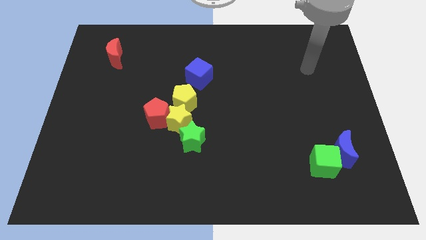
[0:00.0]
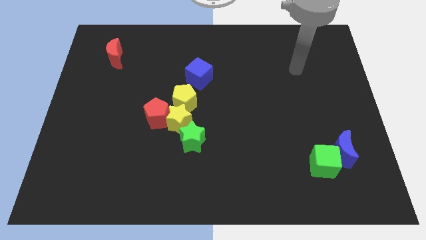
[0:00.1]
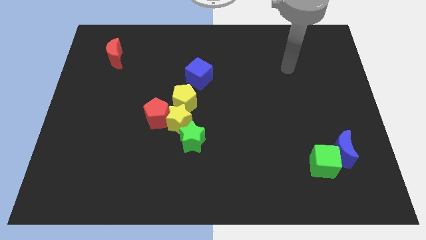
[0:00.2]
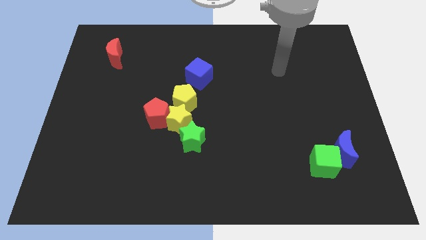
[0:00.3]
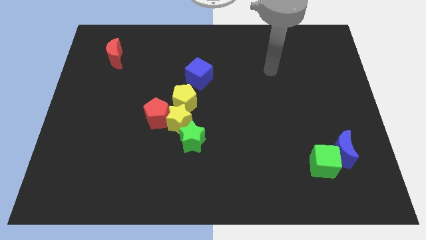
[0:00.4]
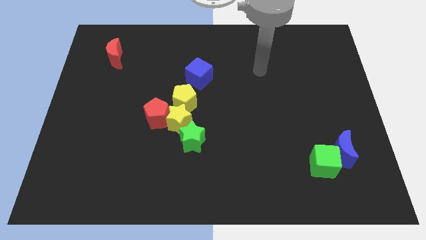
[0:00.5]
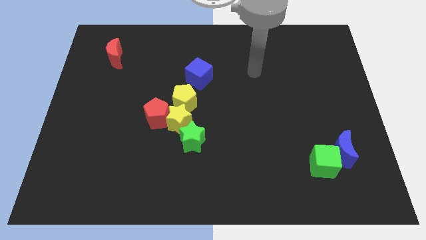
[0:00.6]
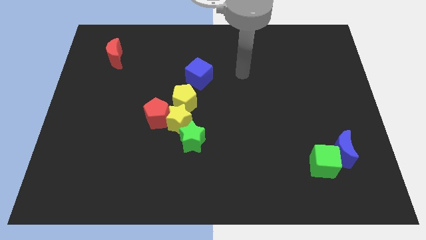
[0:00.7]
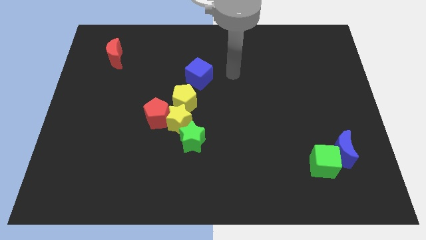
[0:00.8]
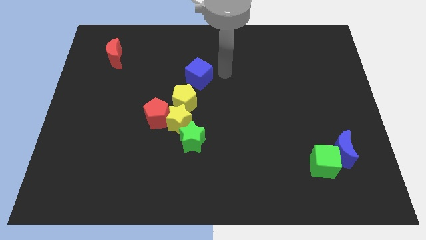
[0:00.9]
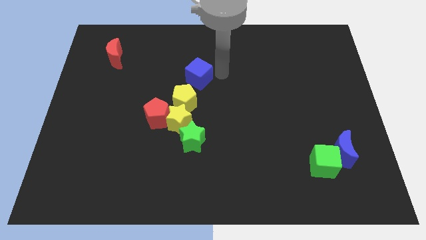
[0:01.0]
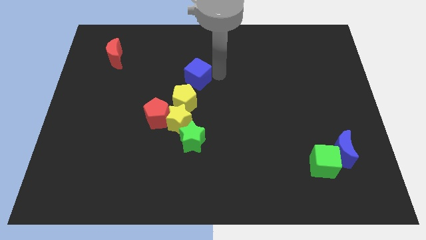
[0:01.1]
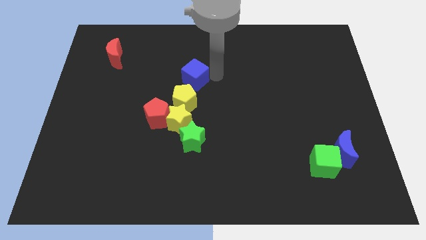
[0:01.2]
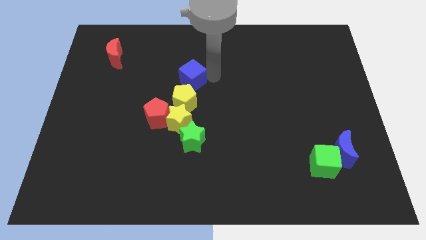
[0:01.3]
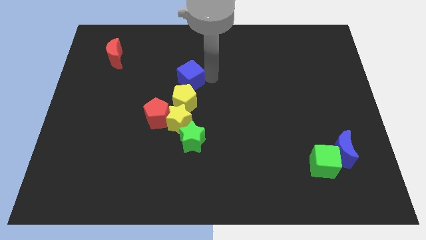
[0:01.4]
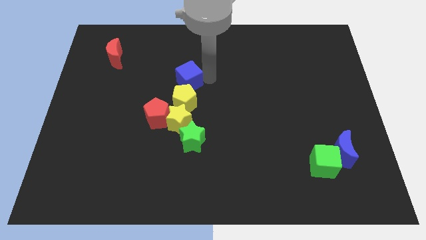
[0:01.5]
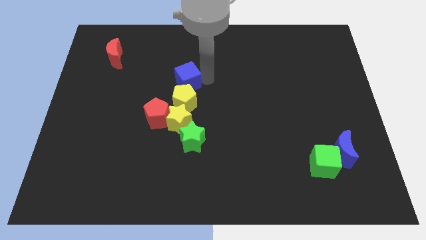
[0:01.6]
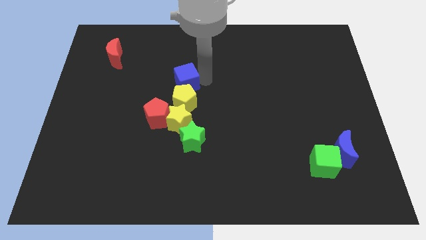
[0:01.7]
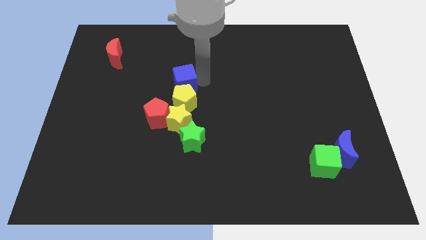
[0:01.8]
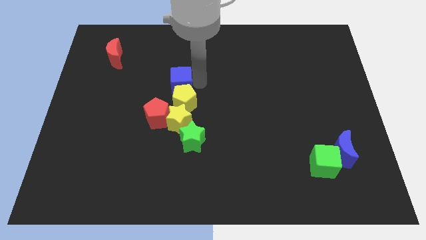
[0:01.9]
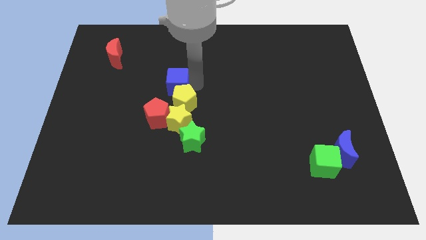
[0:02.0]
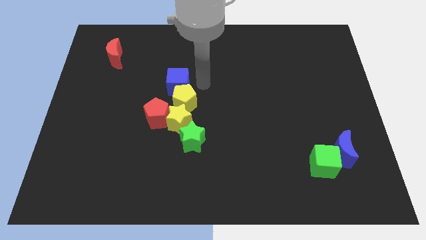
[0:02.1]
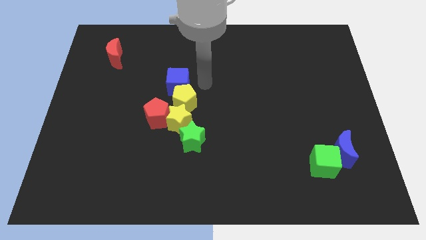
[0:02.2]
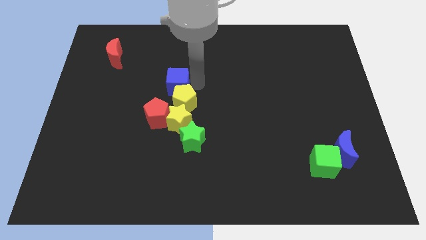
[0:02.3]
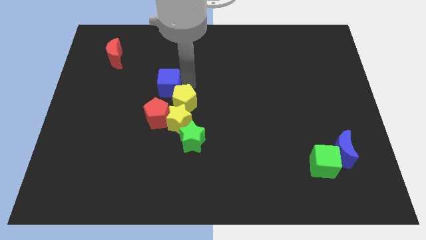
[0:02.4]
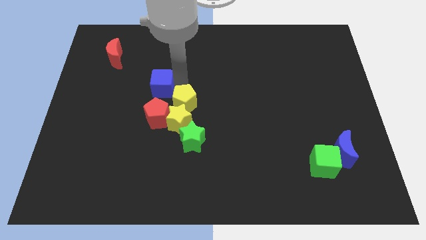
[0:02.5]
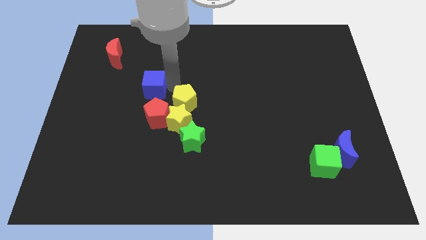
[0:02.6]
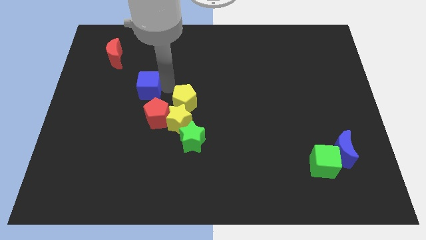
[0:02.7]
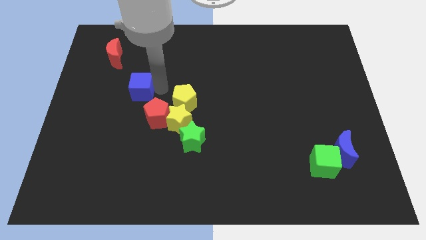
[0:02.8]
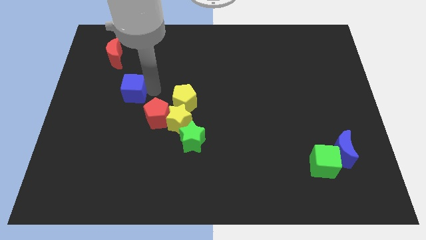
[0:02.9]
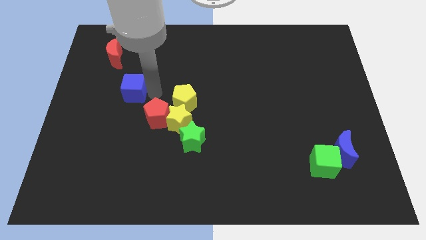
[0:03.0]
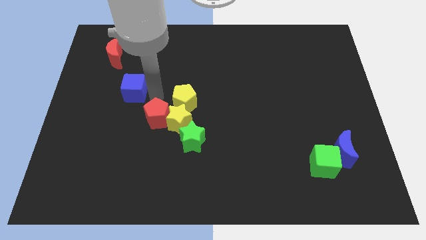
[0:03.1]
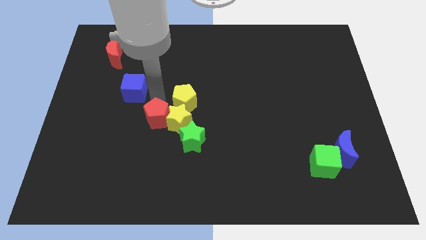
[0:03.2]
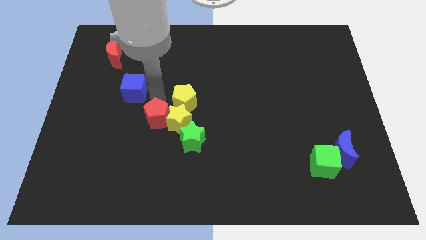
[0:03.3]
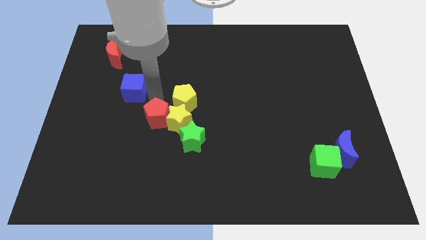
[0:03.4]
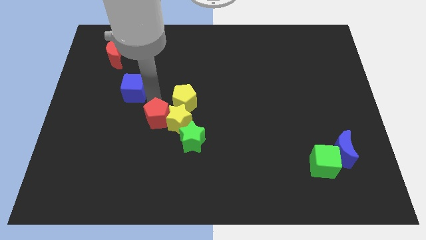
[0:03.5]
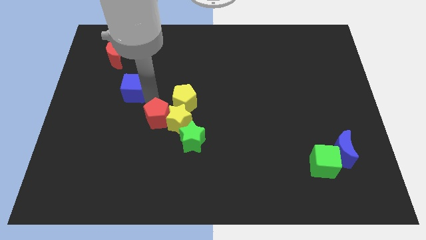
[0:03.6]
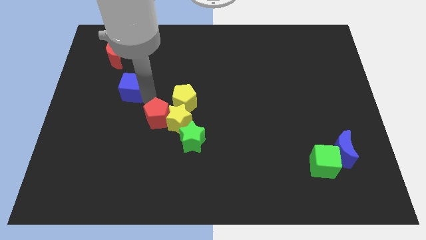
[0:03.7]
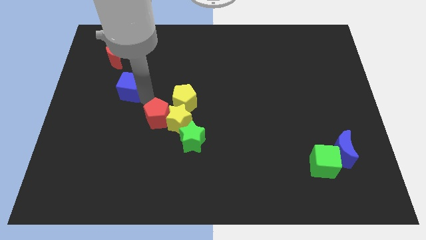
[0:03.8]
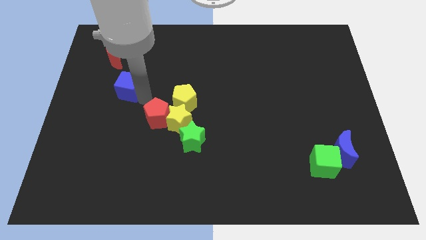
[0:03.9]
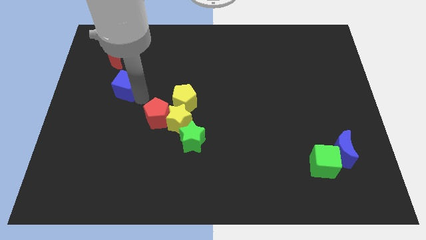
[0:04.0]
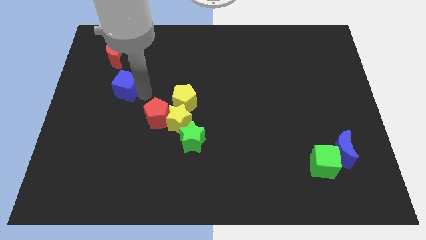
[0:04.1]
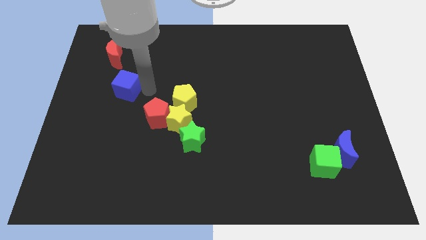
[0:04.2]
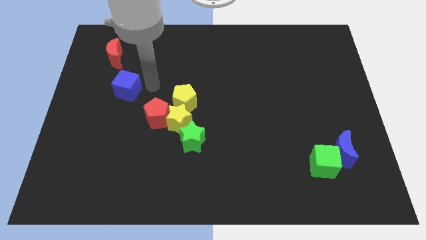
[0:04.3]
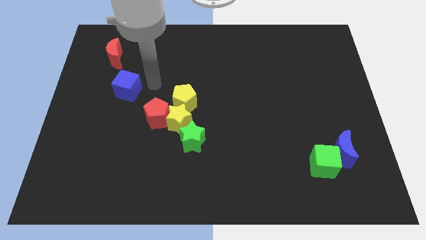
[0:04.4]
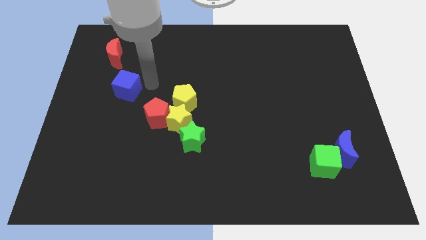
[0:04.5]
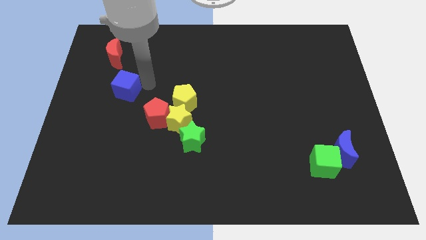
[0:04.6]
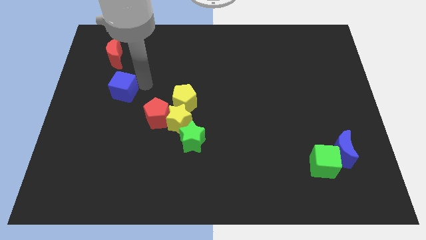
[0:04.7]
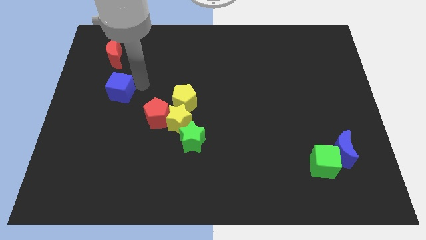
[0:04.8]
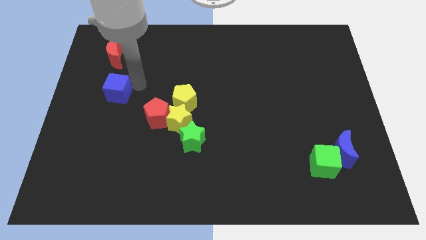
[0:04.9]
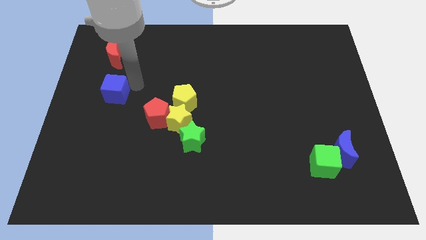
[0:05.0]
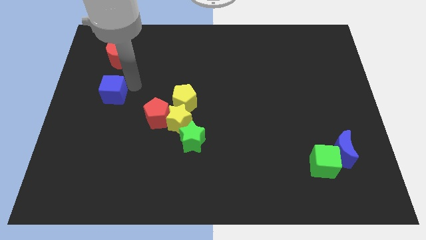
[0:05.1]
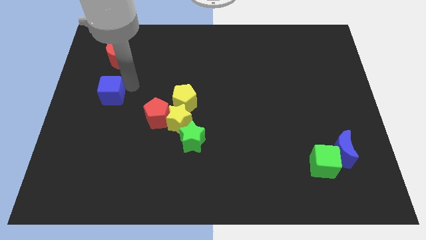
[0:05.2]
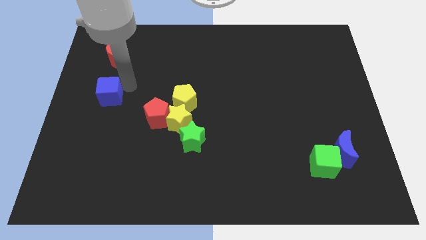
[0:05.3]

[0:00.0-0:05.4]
move the blue cube to the center left

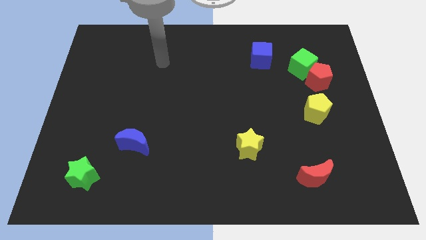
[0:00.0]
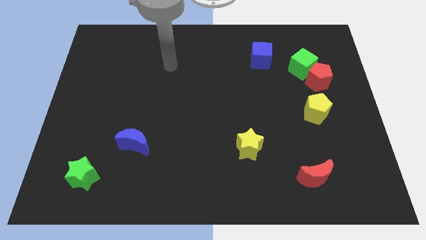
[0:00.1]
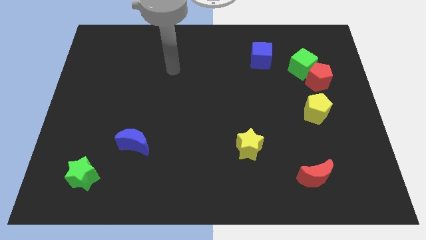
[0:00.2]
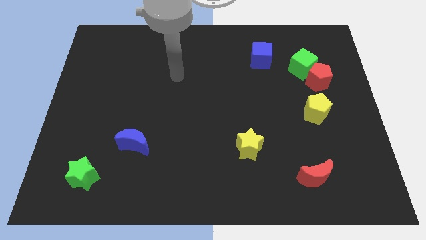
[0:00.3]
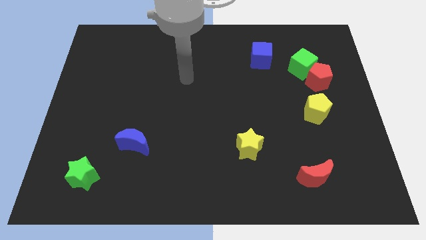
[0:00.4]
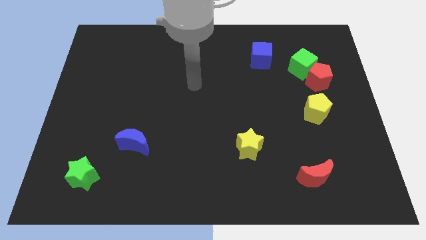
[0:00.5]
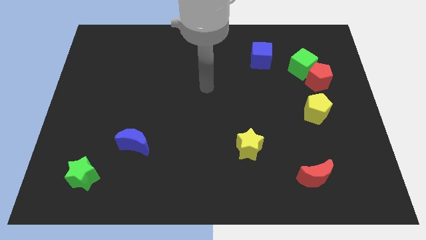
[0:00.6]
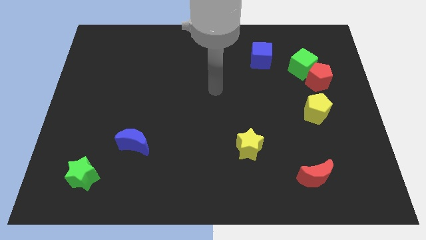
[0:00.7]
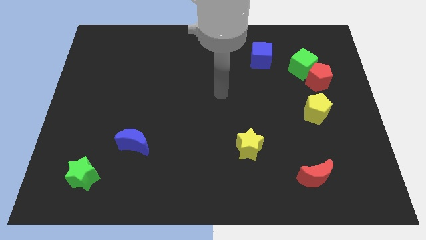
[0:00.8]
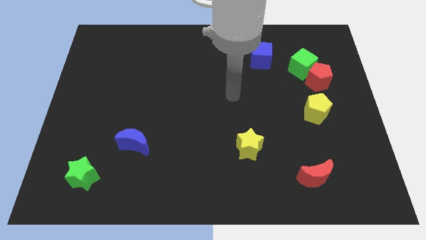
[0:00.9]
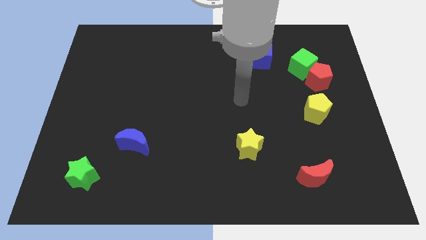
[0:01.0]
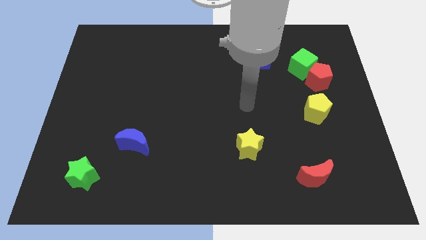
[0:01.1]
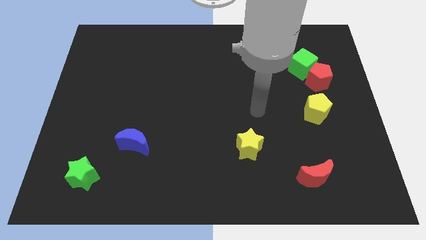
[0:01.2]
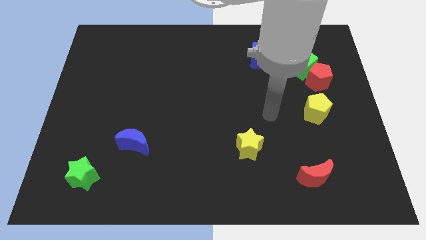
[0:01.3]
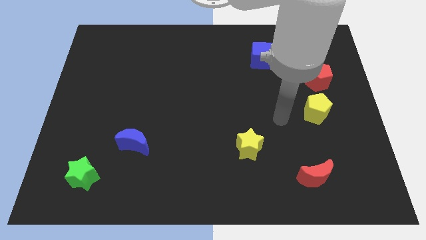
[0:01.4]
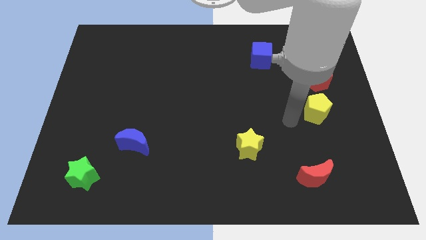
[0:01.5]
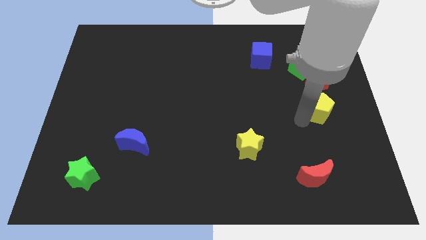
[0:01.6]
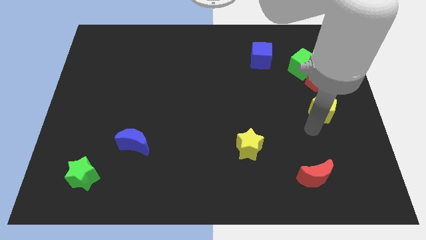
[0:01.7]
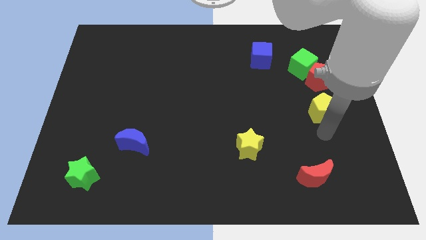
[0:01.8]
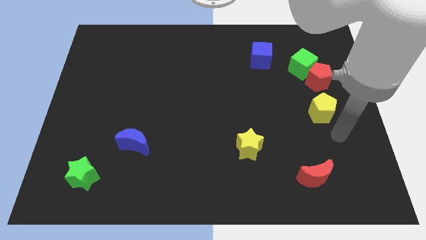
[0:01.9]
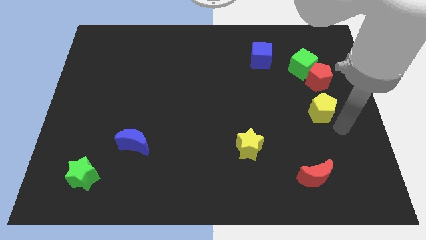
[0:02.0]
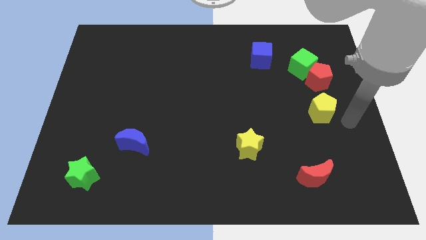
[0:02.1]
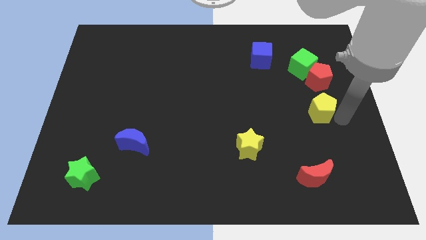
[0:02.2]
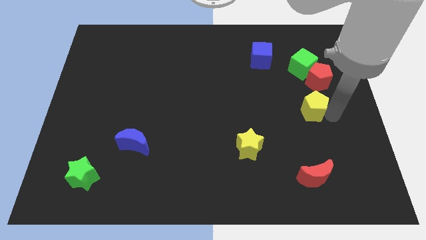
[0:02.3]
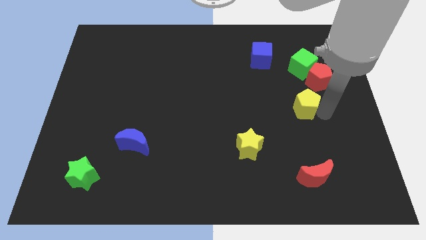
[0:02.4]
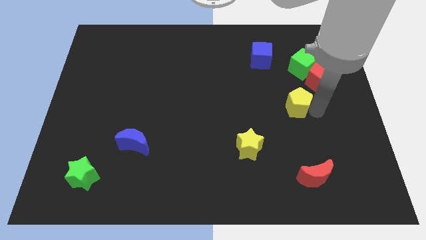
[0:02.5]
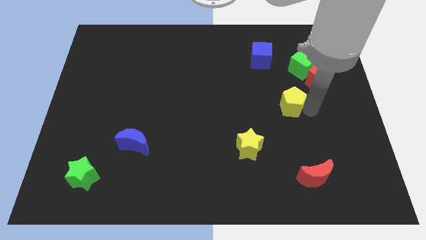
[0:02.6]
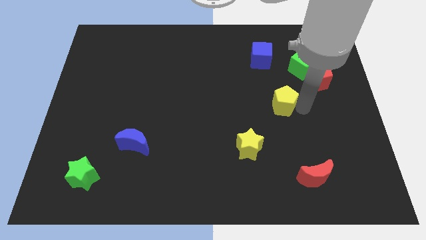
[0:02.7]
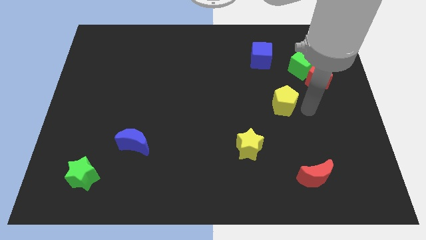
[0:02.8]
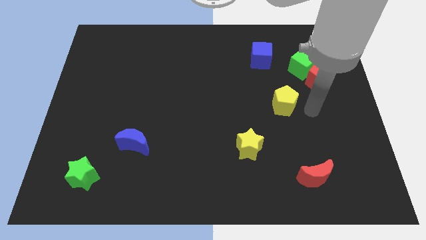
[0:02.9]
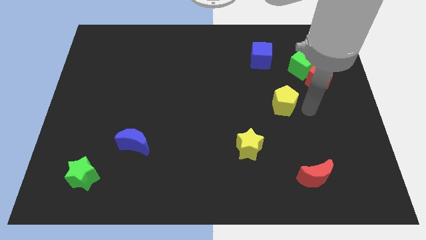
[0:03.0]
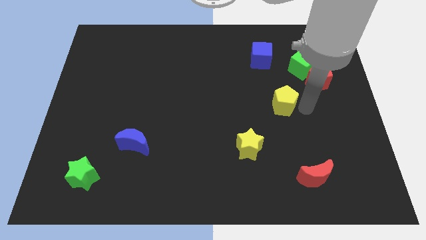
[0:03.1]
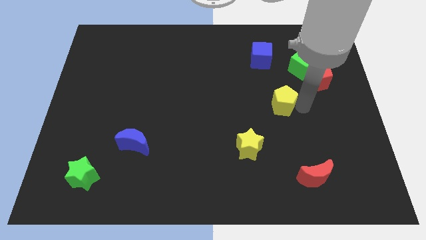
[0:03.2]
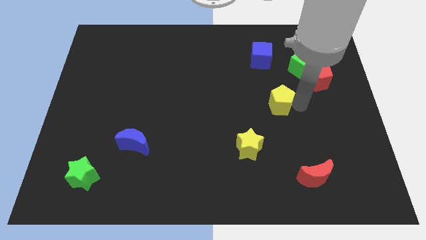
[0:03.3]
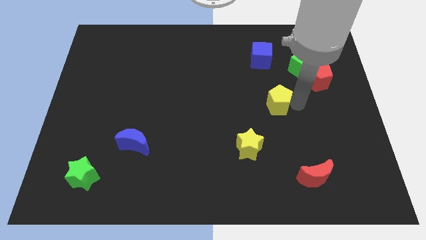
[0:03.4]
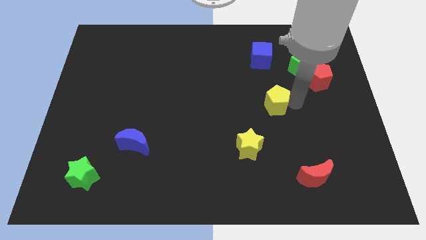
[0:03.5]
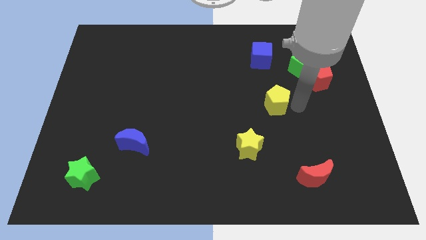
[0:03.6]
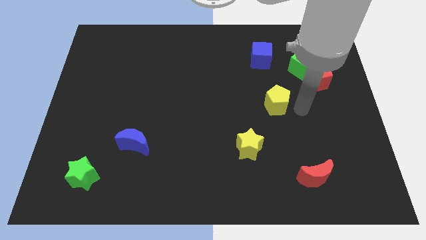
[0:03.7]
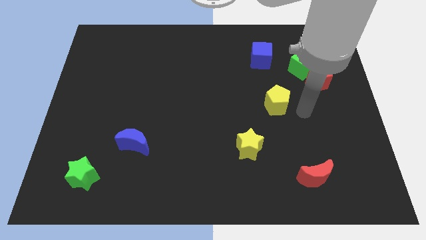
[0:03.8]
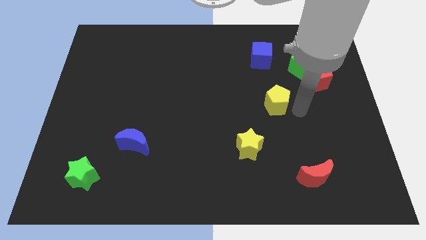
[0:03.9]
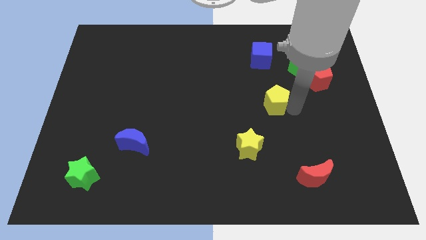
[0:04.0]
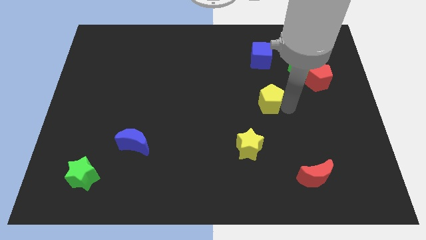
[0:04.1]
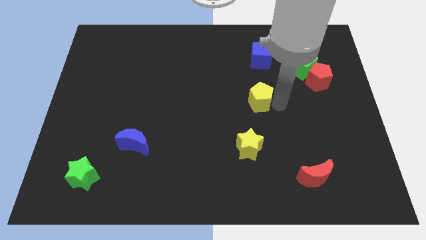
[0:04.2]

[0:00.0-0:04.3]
slide the yellow pentagon to the center of the board
